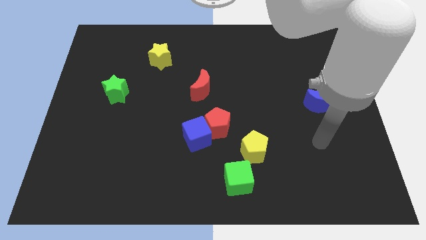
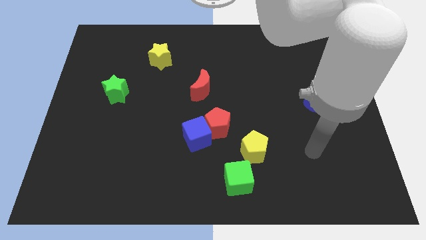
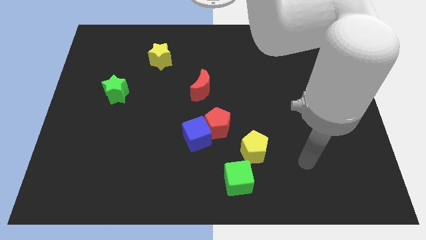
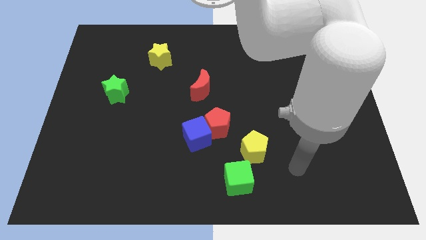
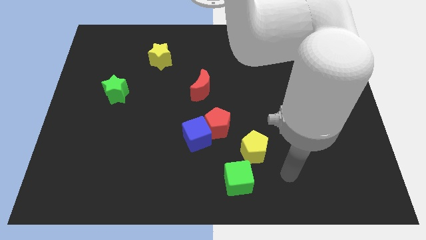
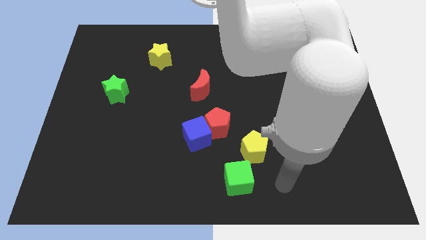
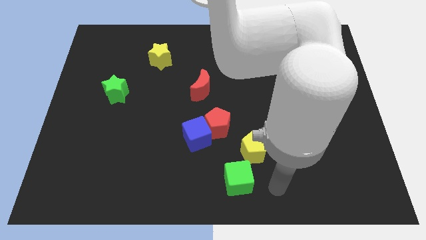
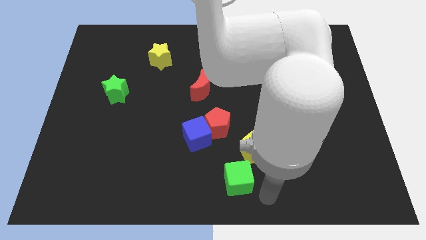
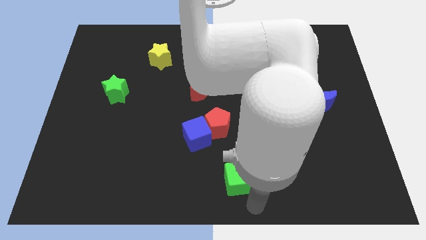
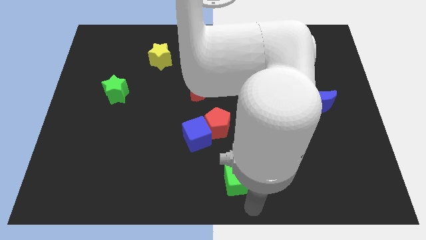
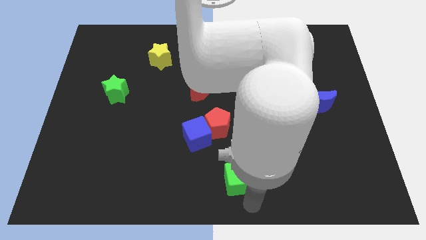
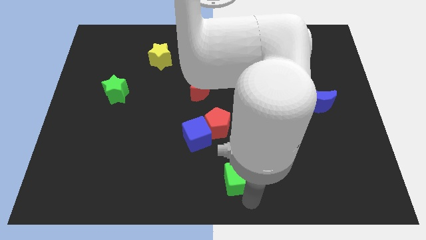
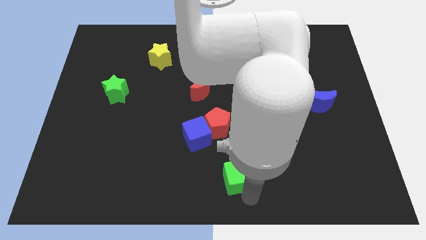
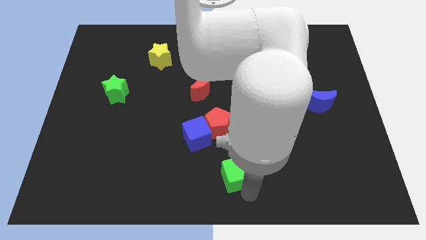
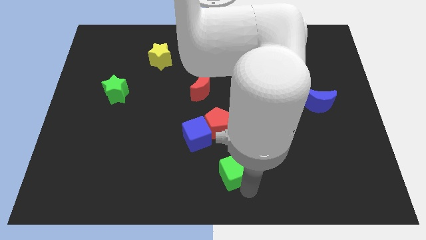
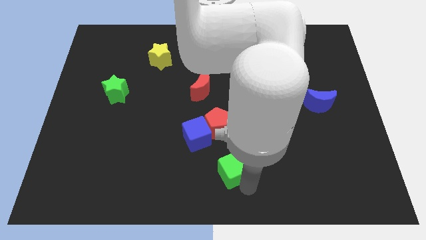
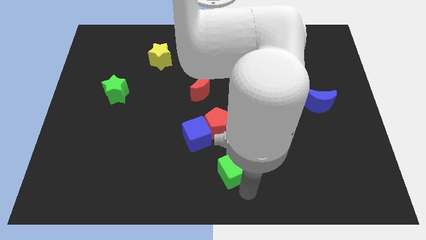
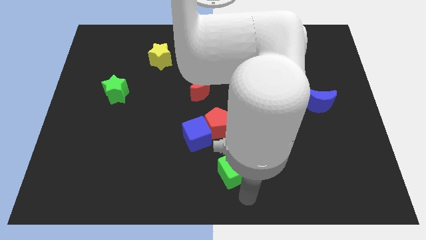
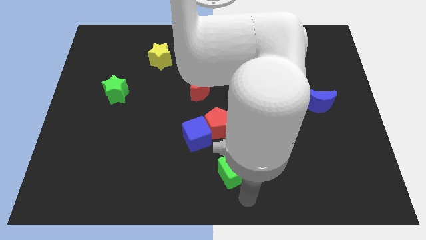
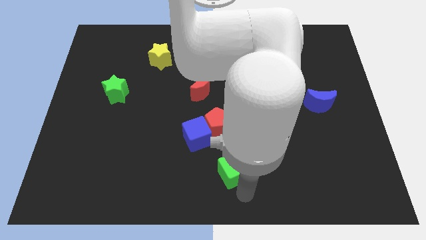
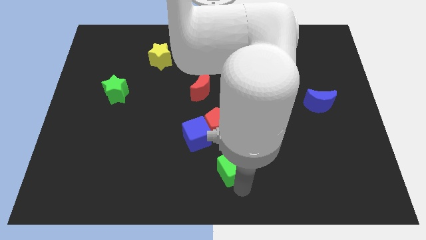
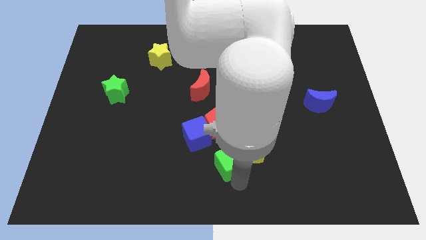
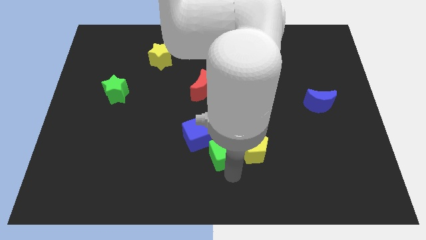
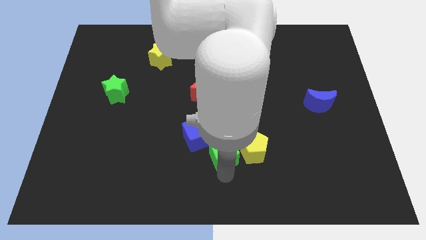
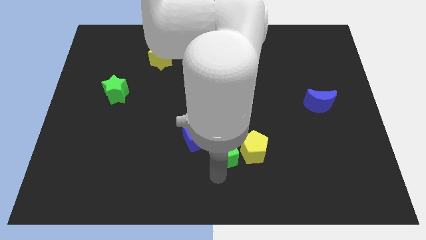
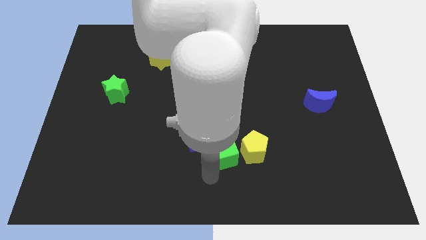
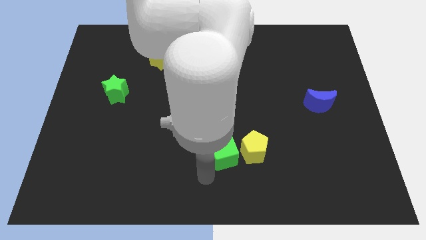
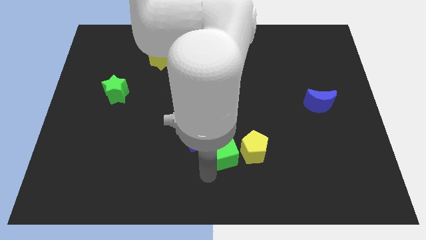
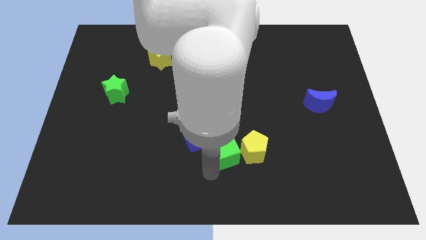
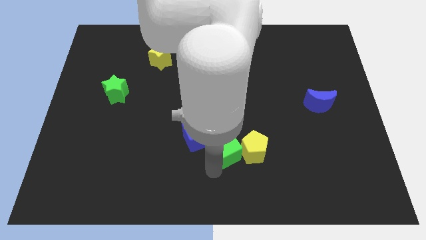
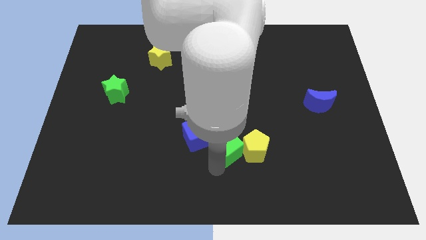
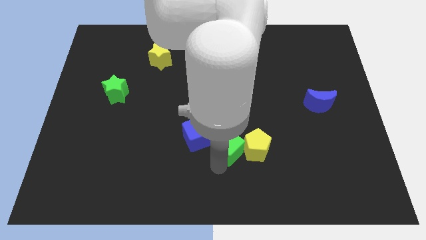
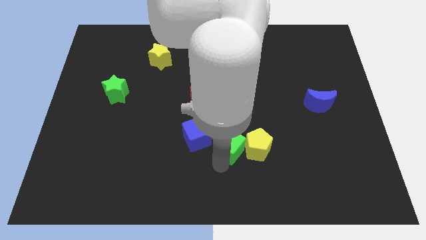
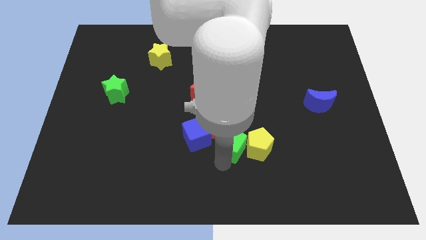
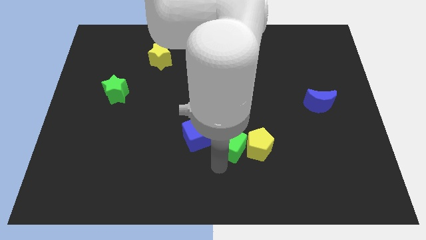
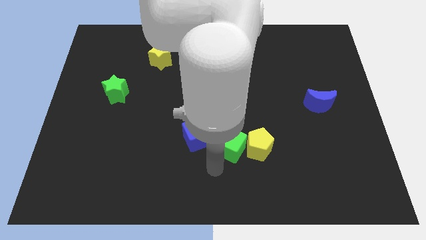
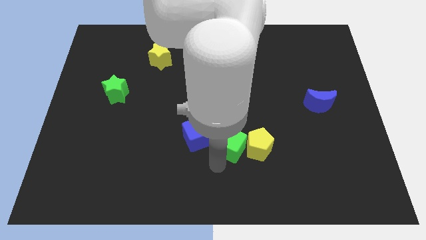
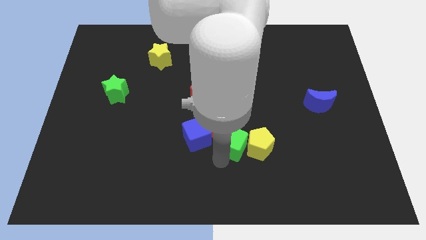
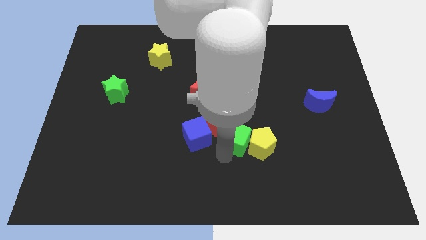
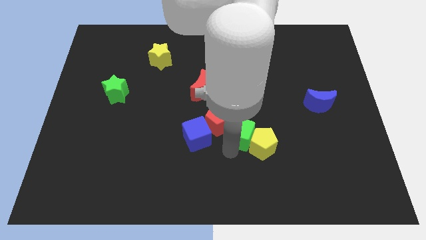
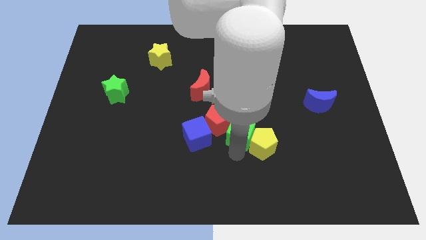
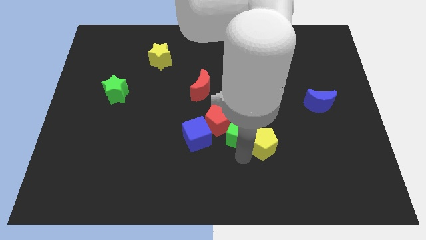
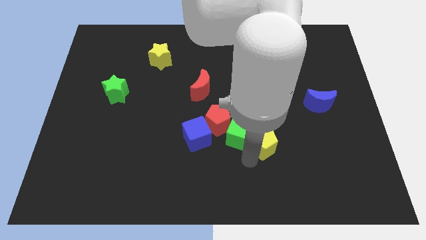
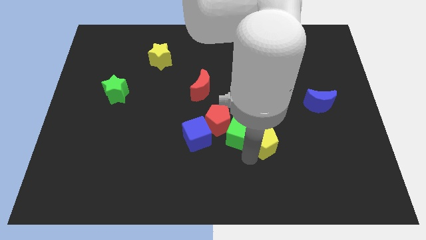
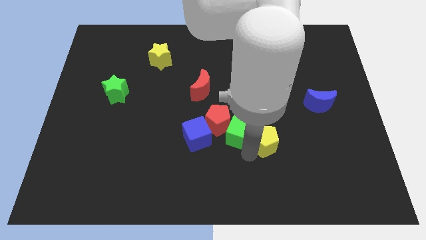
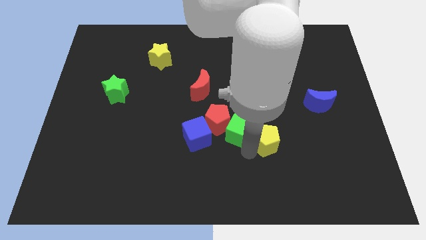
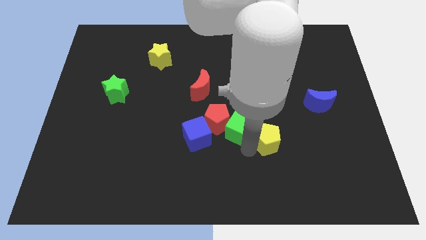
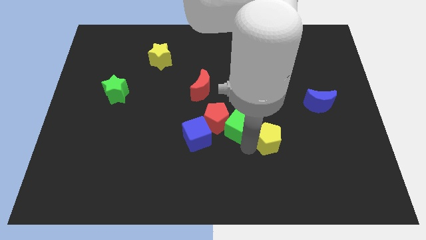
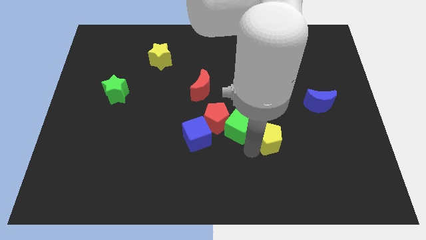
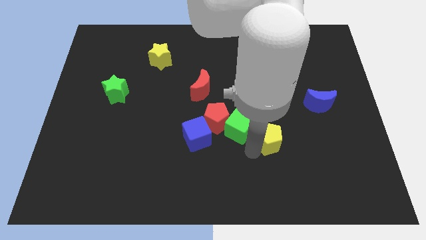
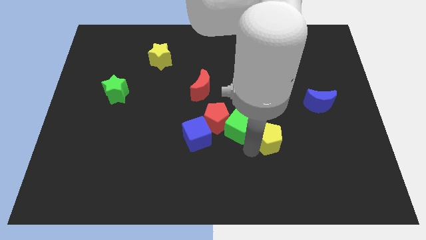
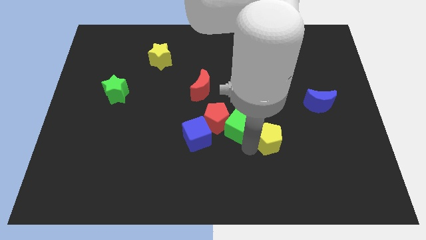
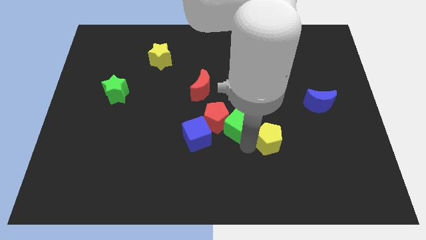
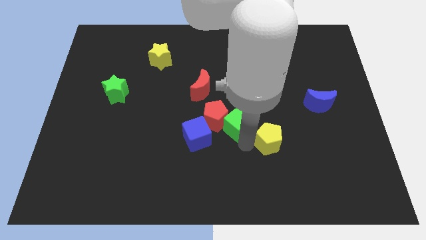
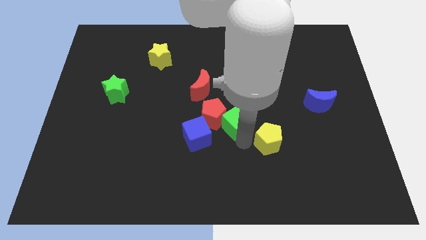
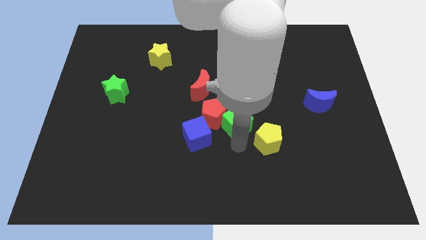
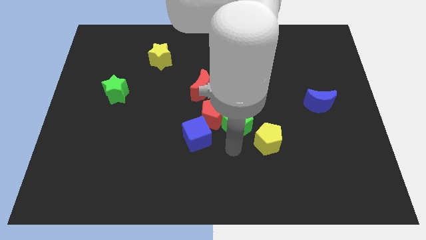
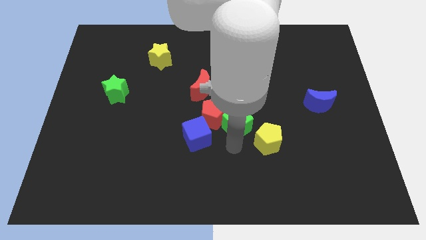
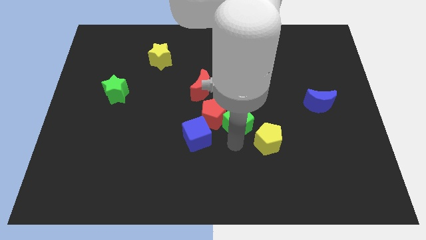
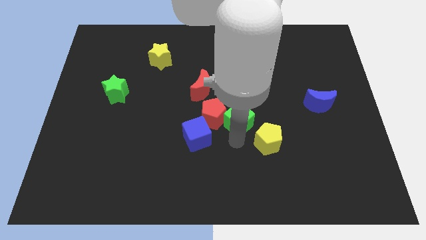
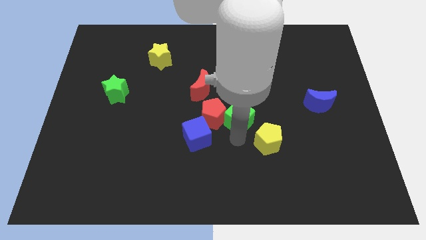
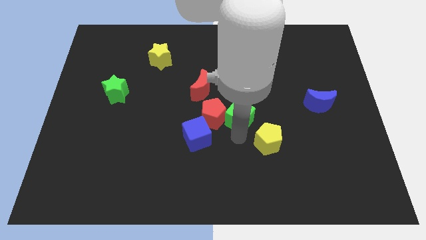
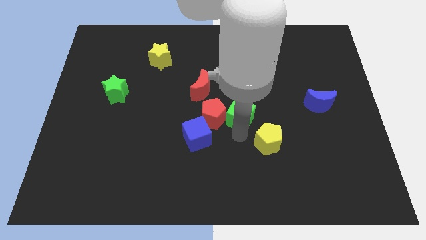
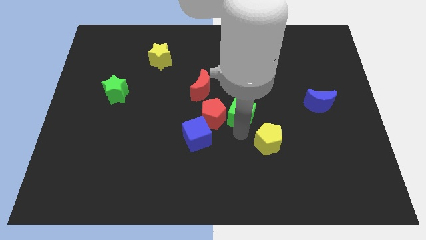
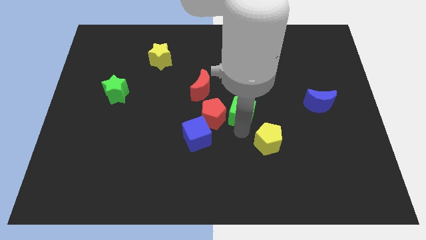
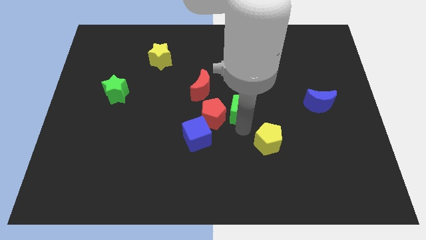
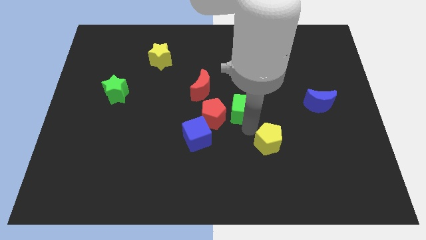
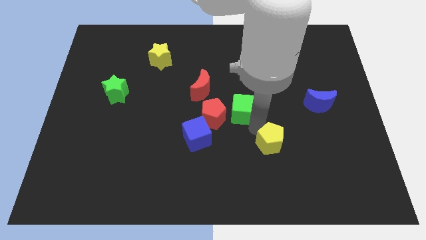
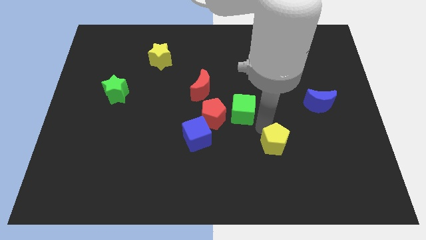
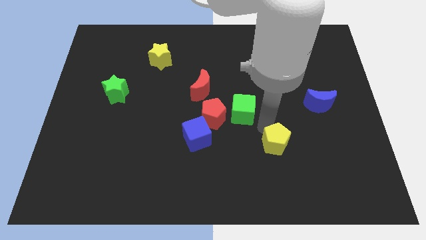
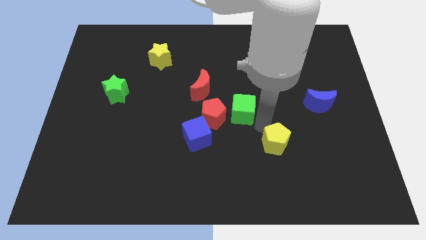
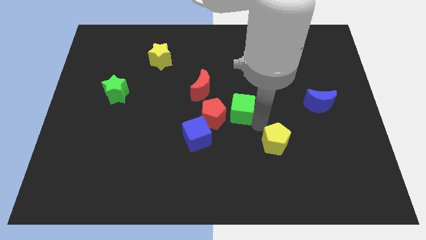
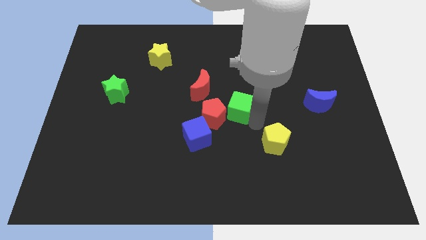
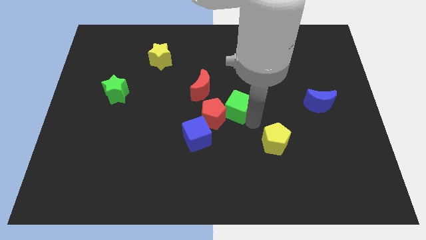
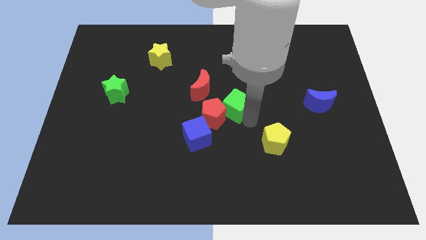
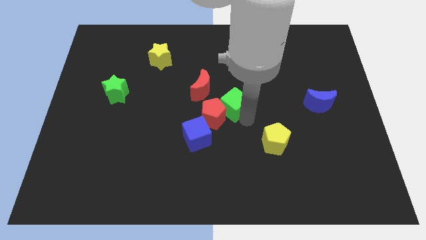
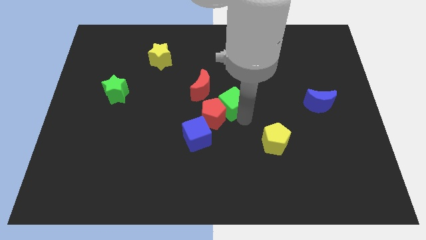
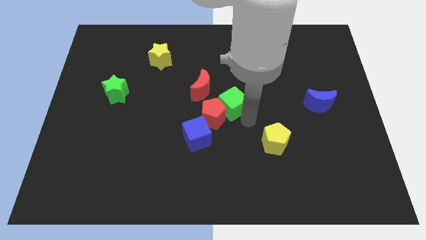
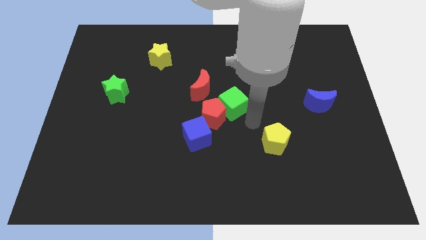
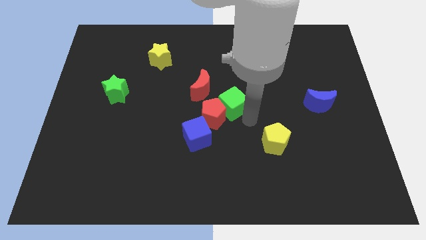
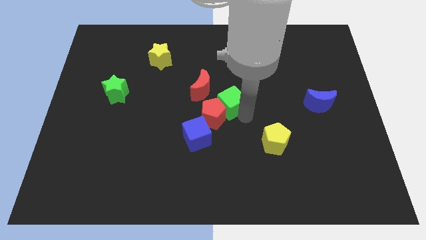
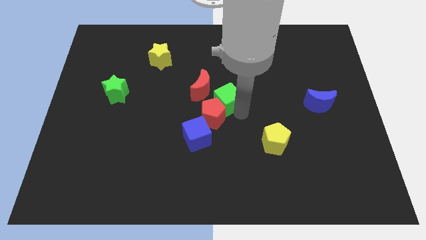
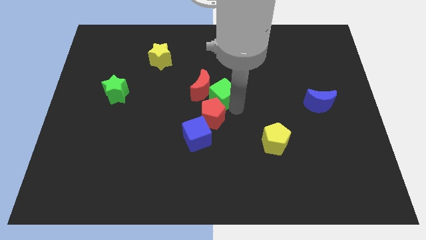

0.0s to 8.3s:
put the green cube next to the red moon
